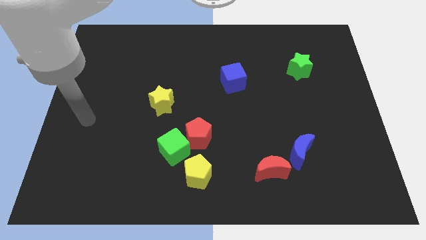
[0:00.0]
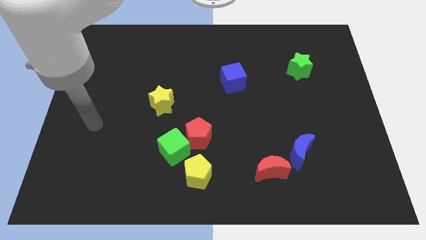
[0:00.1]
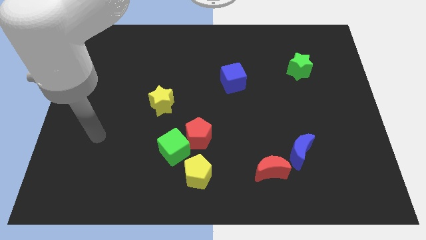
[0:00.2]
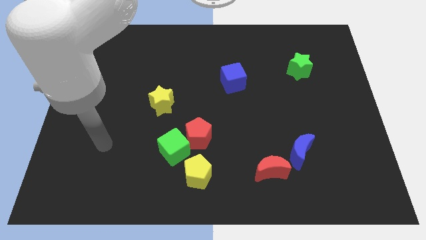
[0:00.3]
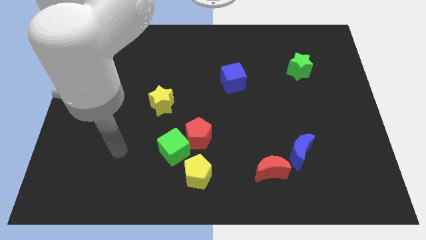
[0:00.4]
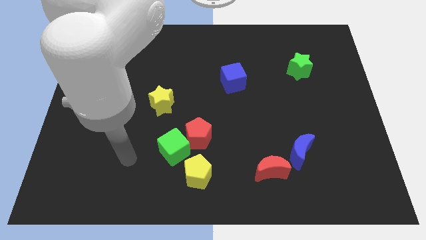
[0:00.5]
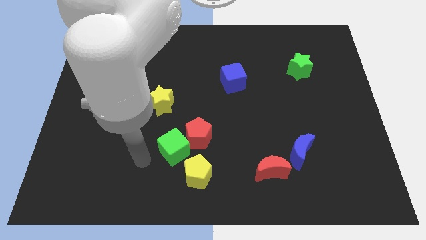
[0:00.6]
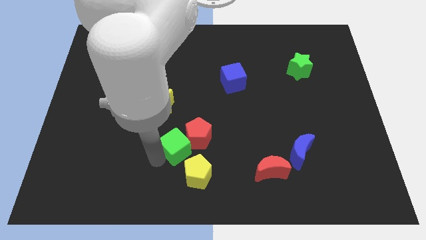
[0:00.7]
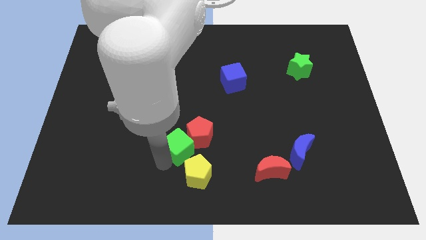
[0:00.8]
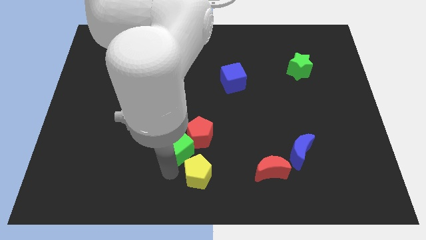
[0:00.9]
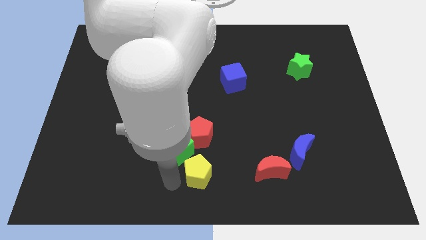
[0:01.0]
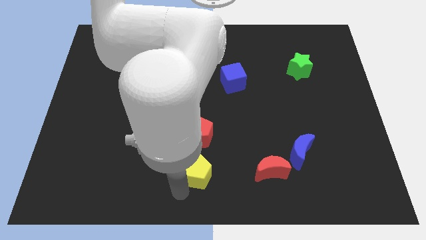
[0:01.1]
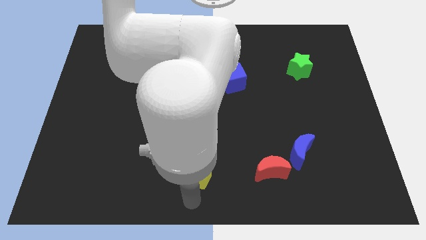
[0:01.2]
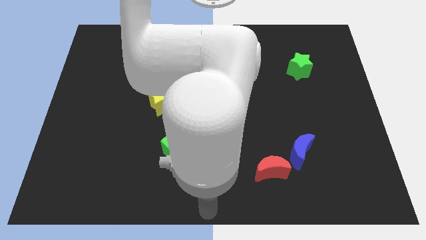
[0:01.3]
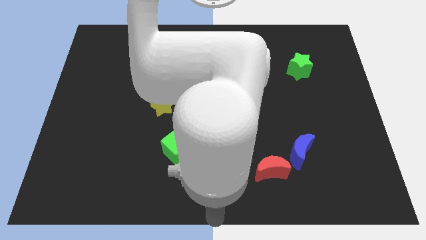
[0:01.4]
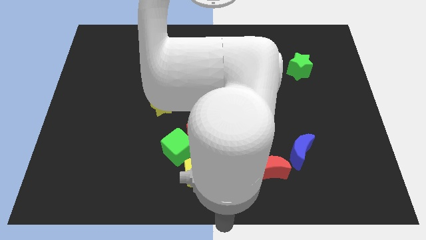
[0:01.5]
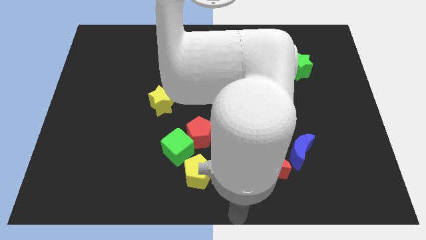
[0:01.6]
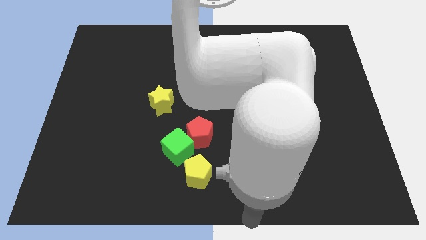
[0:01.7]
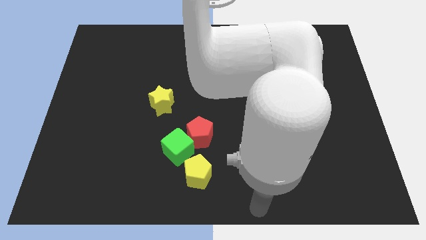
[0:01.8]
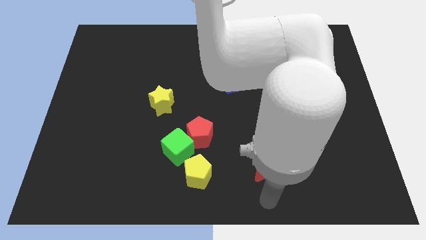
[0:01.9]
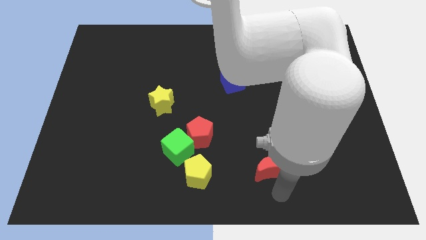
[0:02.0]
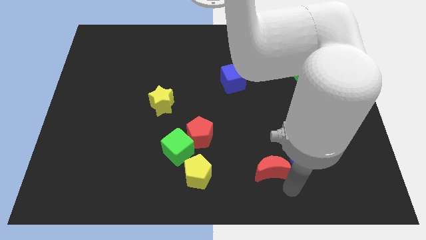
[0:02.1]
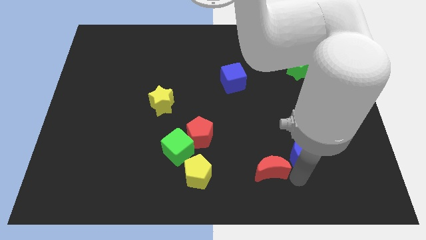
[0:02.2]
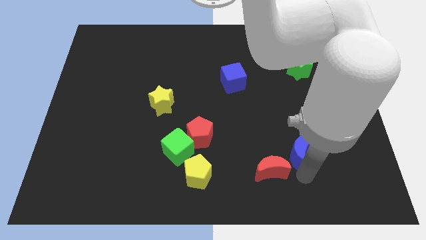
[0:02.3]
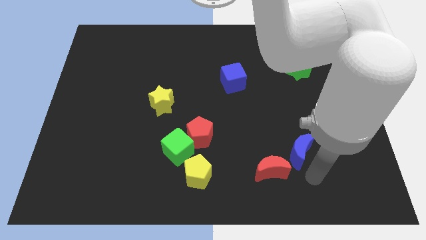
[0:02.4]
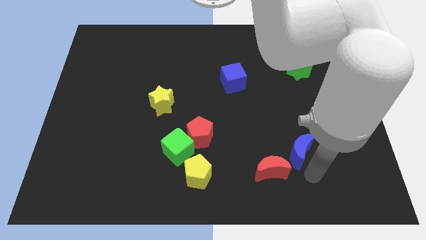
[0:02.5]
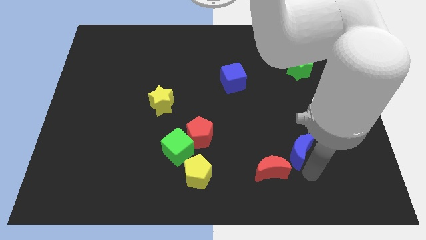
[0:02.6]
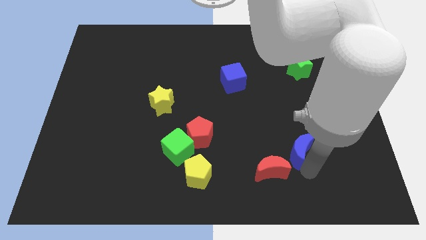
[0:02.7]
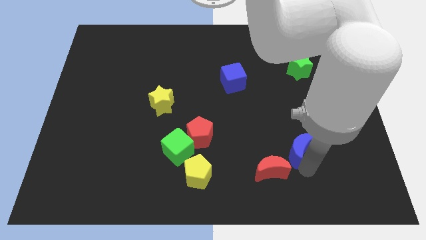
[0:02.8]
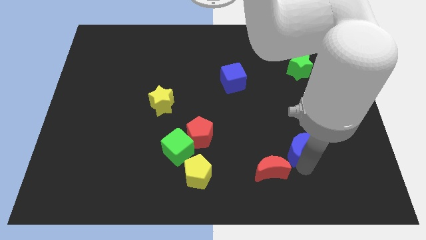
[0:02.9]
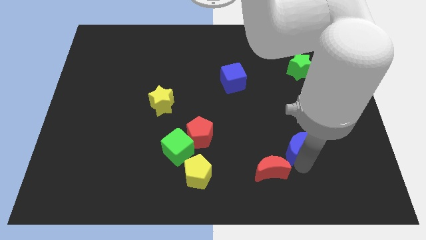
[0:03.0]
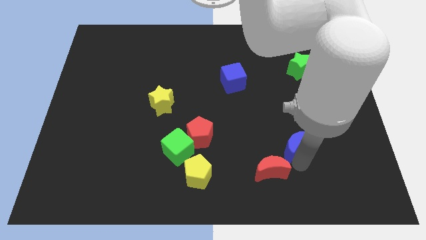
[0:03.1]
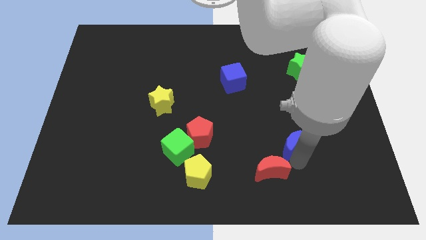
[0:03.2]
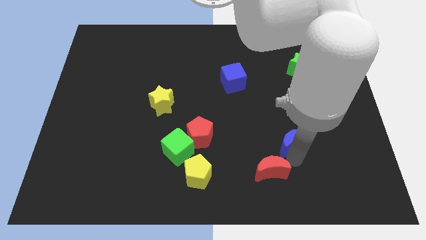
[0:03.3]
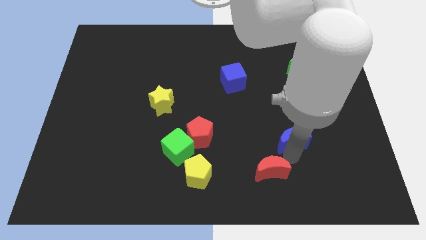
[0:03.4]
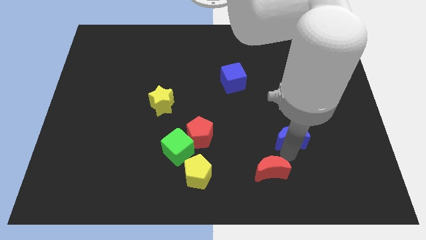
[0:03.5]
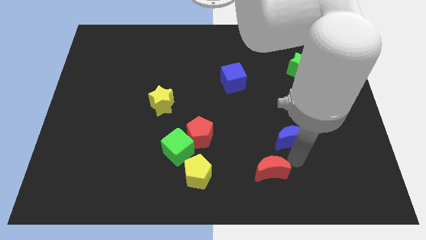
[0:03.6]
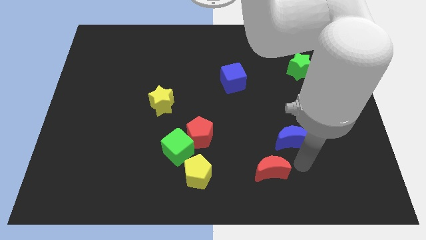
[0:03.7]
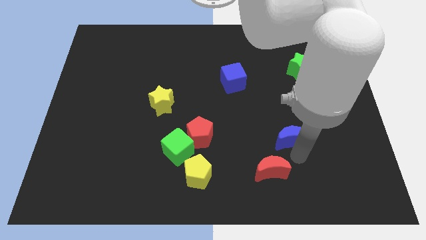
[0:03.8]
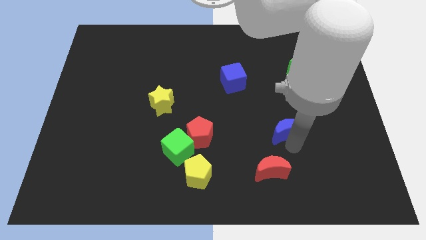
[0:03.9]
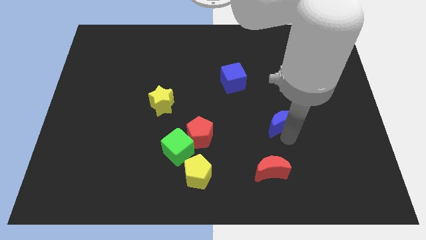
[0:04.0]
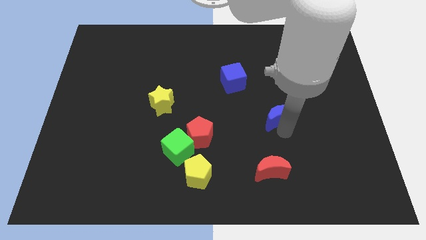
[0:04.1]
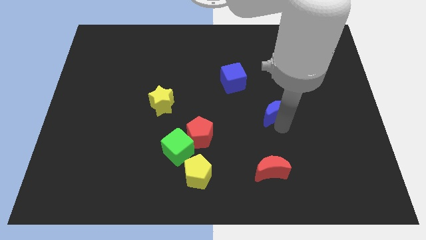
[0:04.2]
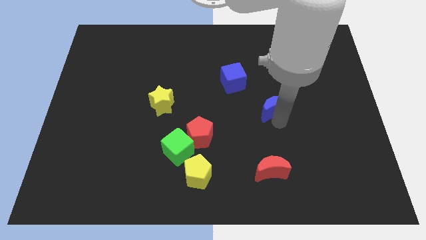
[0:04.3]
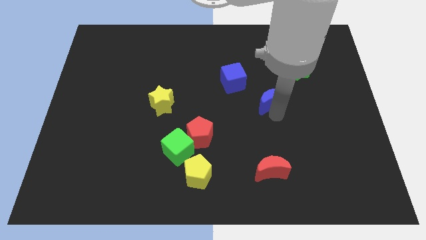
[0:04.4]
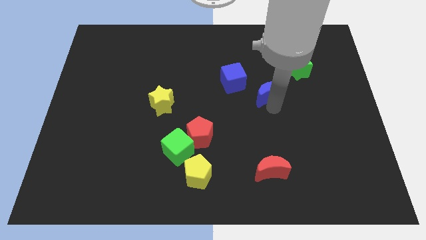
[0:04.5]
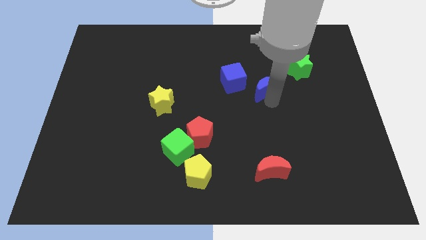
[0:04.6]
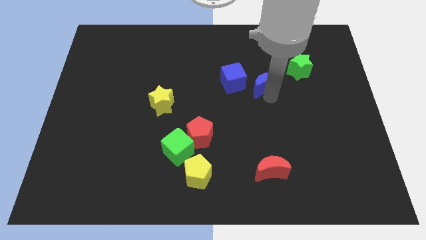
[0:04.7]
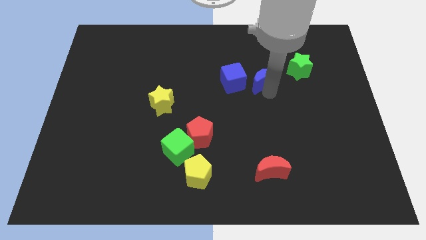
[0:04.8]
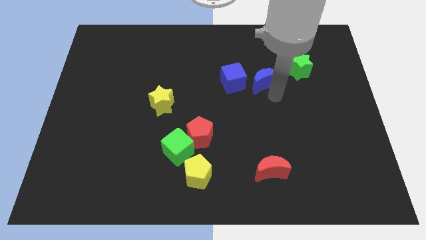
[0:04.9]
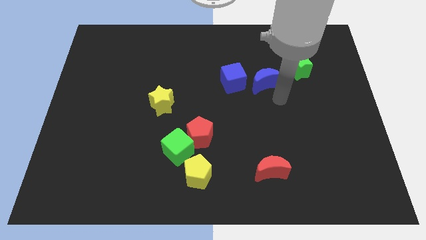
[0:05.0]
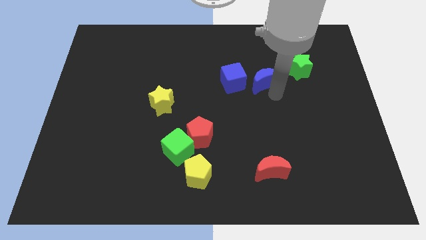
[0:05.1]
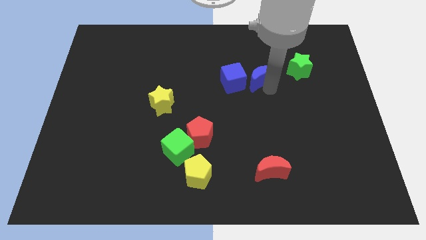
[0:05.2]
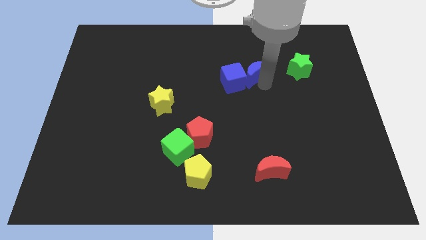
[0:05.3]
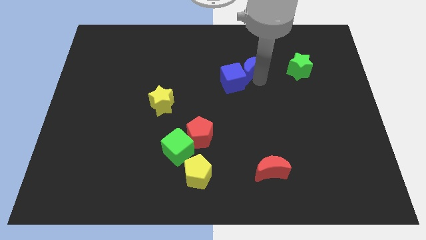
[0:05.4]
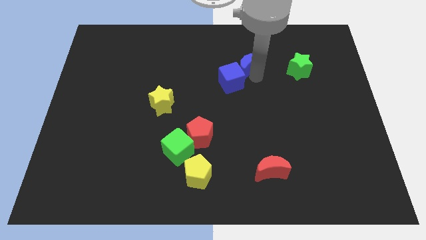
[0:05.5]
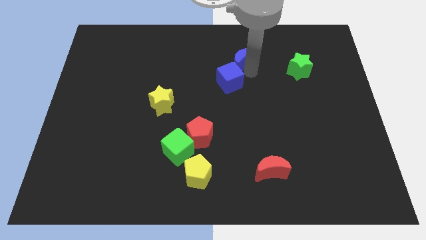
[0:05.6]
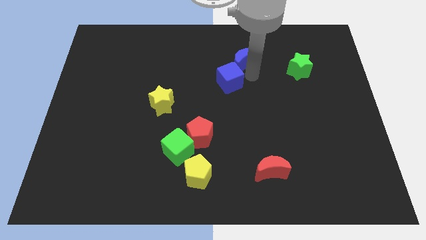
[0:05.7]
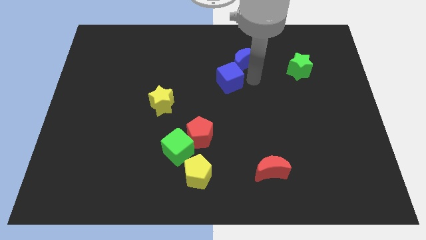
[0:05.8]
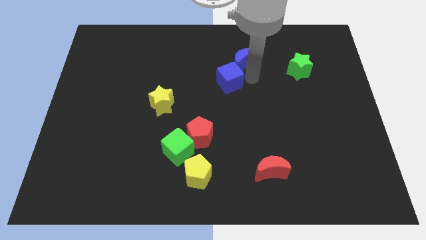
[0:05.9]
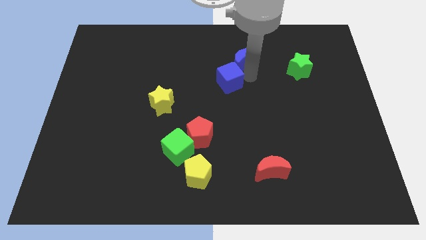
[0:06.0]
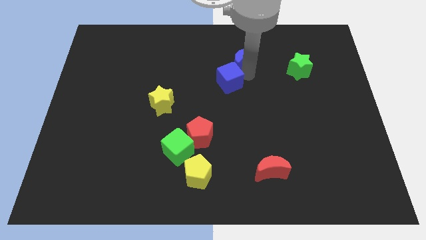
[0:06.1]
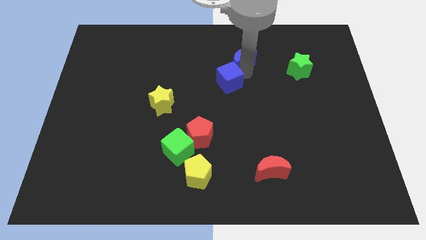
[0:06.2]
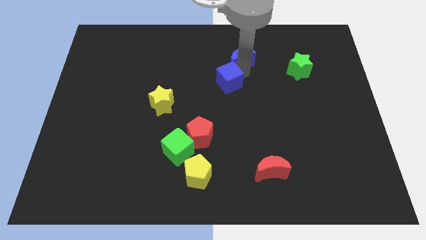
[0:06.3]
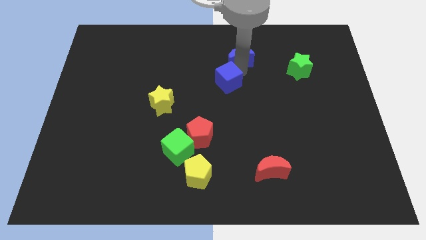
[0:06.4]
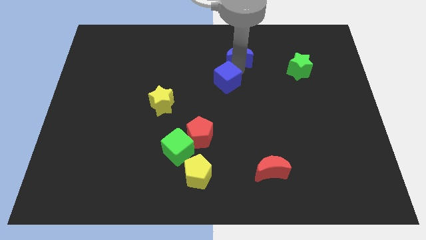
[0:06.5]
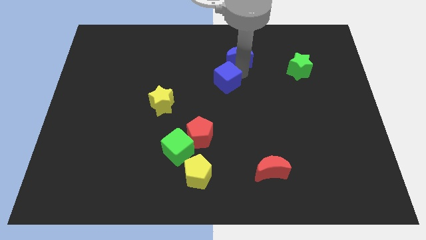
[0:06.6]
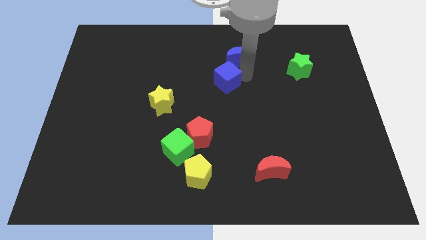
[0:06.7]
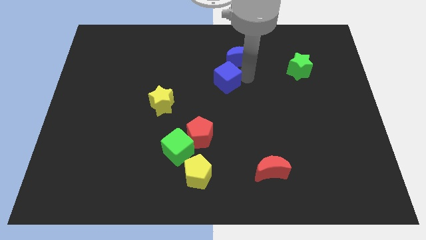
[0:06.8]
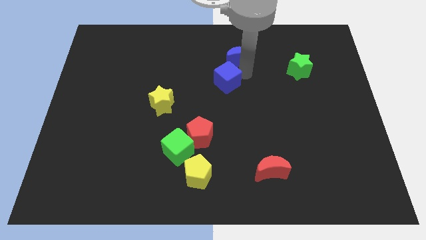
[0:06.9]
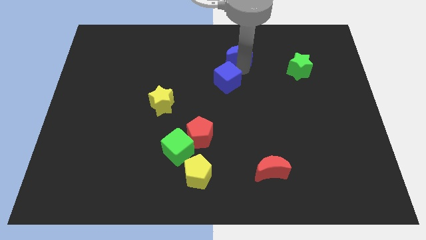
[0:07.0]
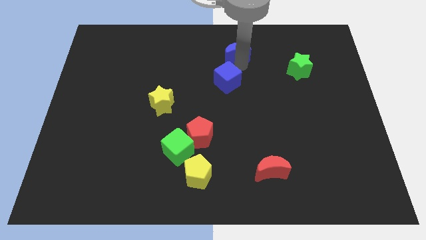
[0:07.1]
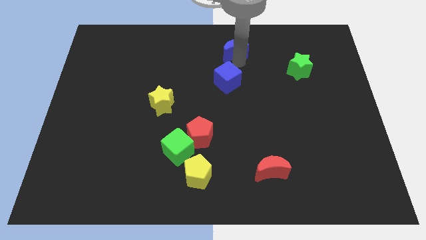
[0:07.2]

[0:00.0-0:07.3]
slide the blue moon to the towards your base
